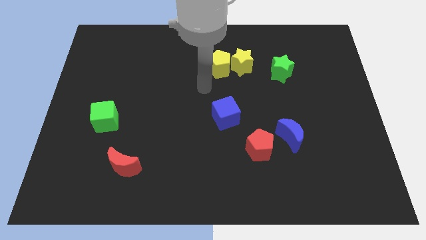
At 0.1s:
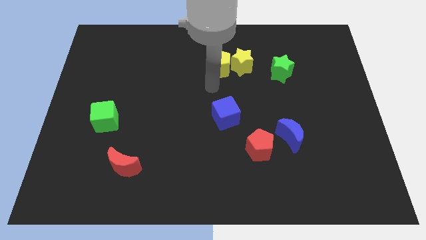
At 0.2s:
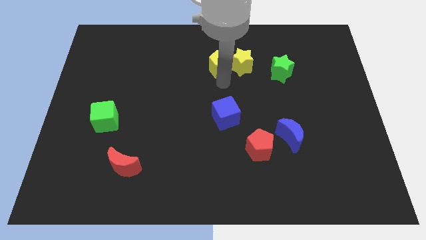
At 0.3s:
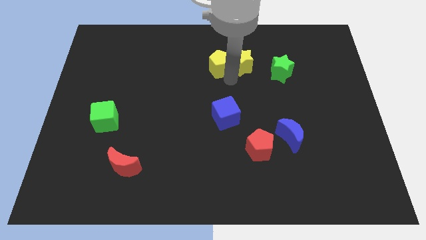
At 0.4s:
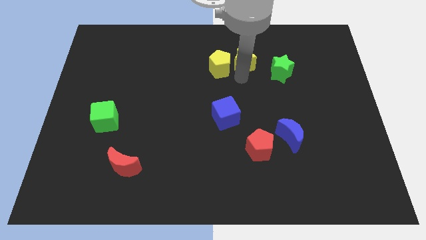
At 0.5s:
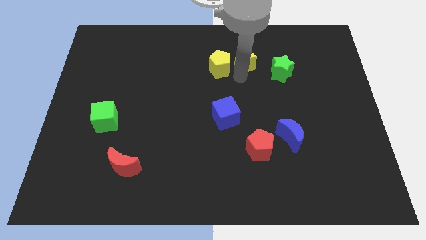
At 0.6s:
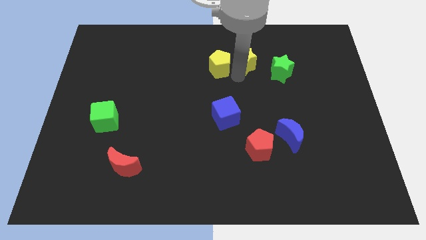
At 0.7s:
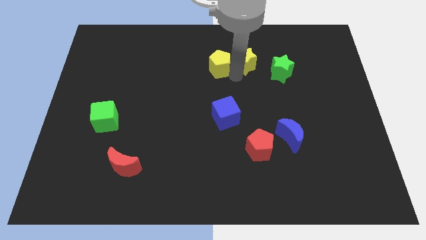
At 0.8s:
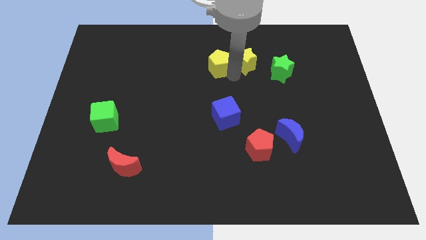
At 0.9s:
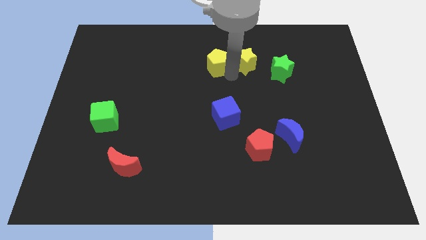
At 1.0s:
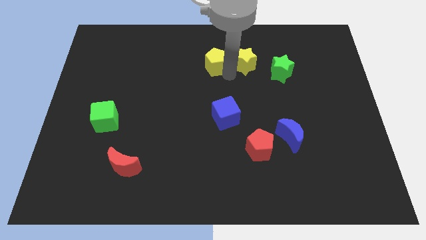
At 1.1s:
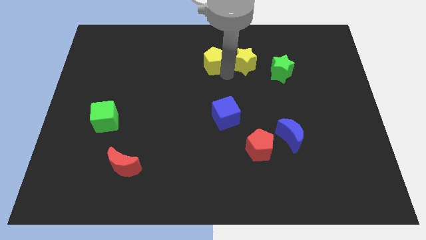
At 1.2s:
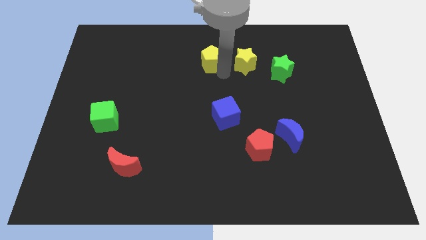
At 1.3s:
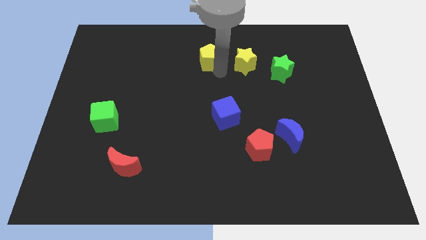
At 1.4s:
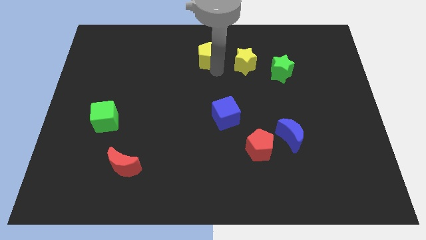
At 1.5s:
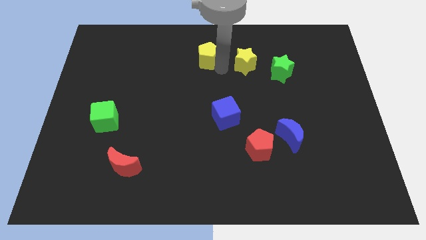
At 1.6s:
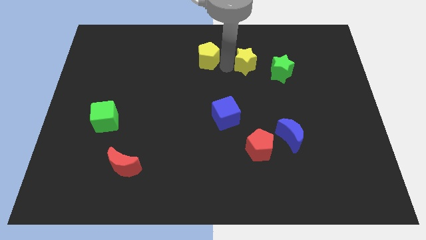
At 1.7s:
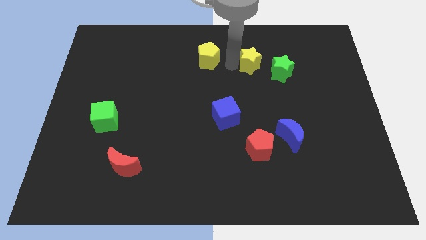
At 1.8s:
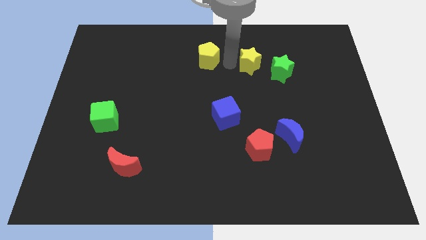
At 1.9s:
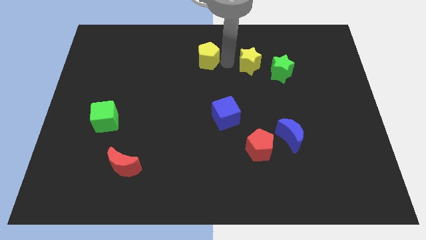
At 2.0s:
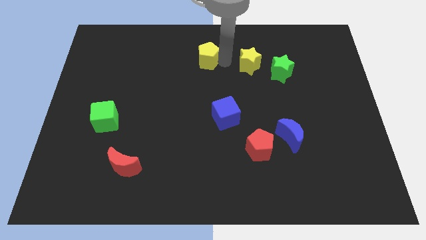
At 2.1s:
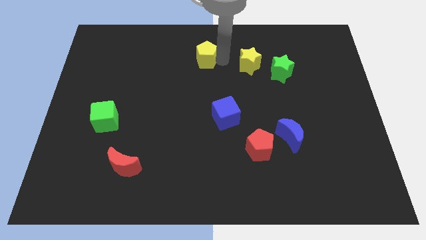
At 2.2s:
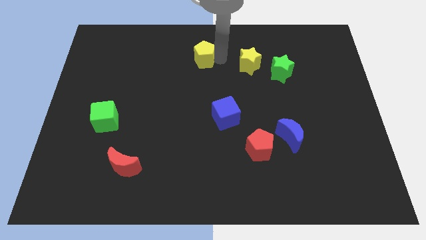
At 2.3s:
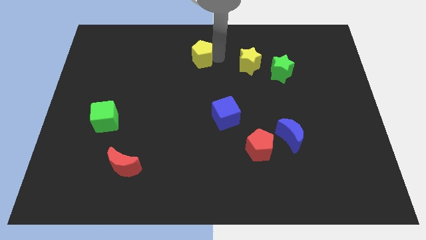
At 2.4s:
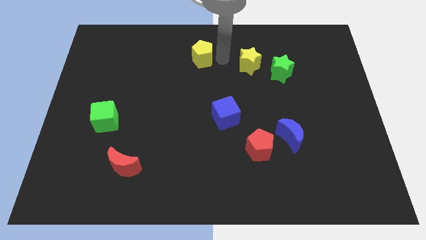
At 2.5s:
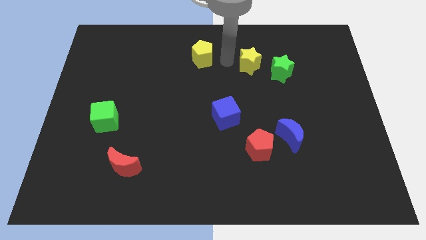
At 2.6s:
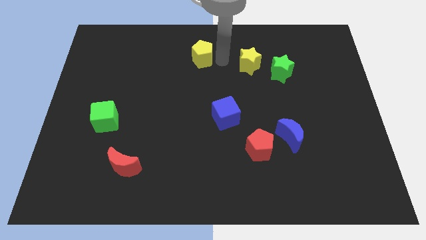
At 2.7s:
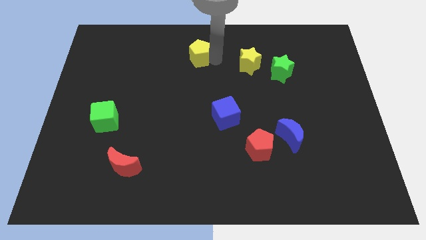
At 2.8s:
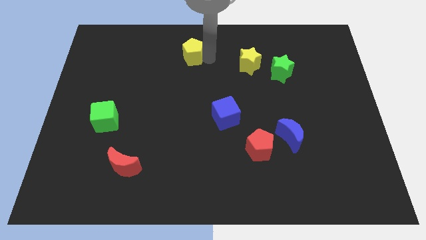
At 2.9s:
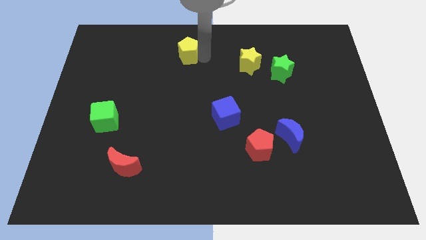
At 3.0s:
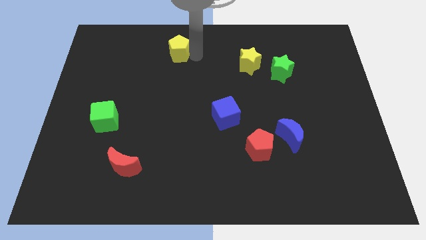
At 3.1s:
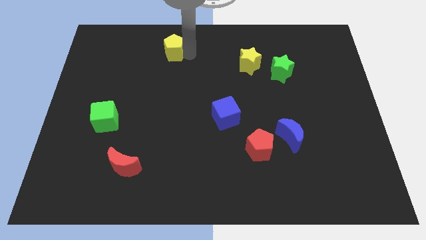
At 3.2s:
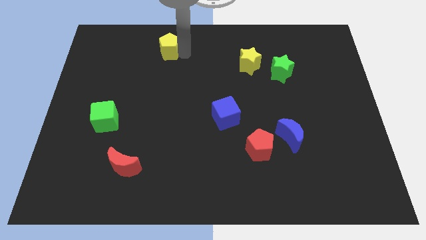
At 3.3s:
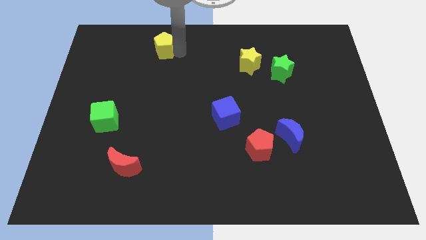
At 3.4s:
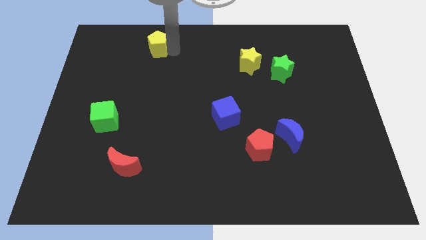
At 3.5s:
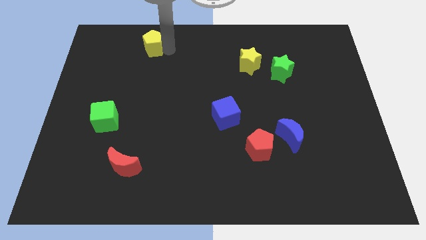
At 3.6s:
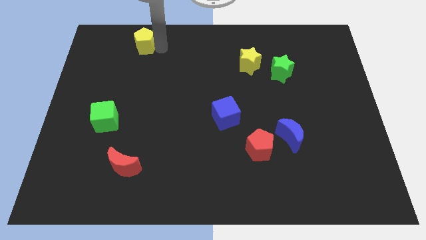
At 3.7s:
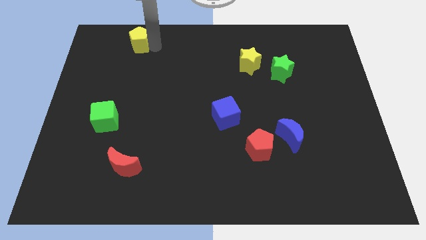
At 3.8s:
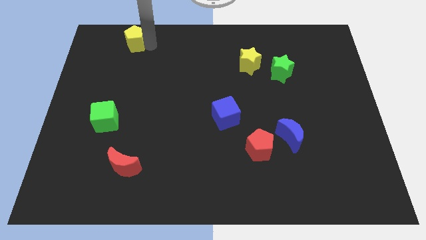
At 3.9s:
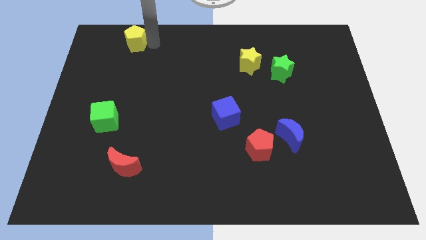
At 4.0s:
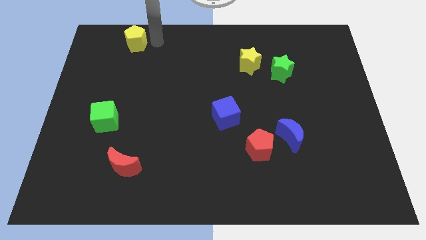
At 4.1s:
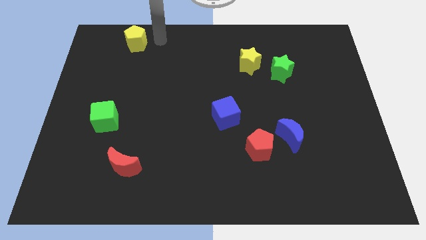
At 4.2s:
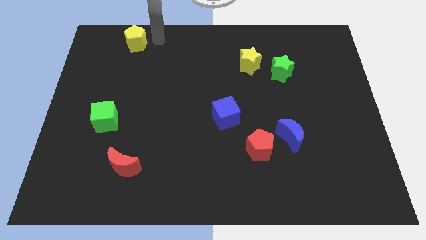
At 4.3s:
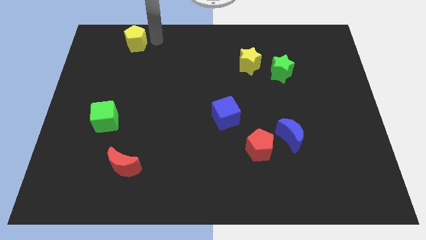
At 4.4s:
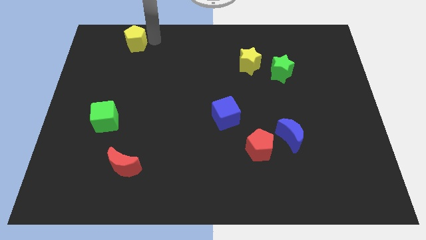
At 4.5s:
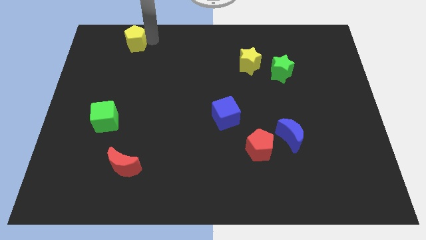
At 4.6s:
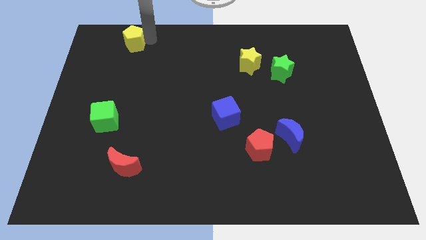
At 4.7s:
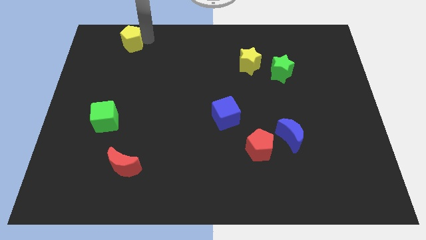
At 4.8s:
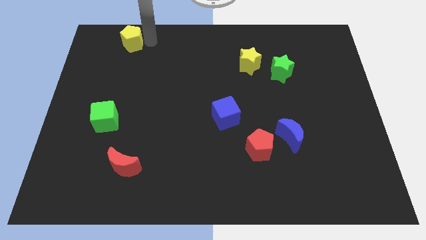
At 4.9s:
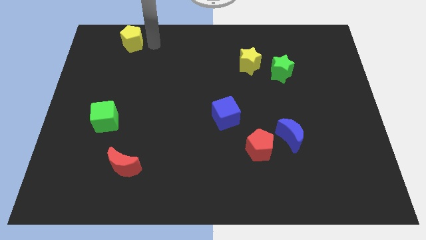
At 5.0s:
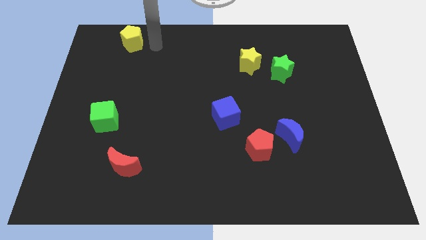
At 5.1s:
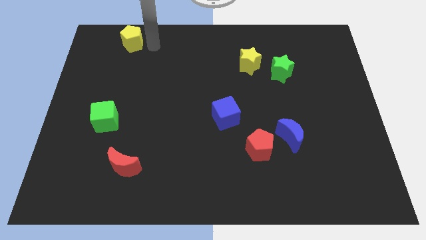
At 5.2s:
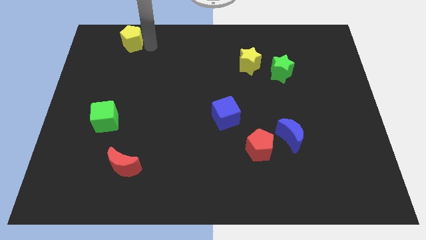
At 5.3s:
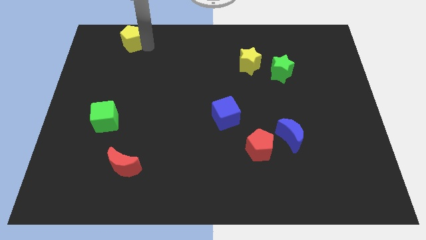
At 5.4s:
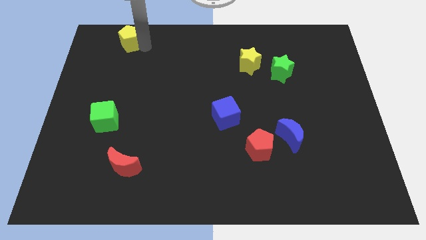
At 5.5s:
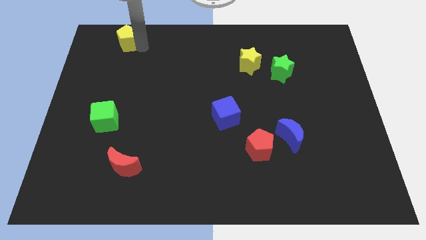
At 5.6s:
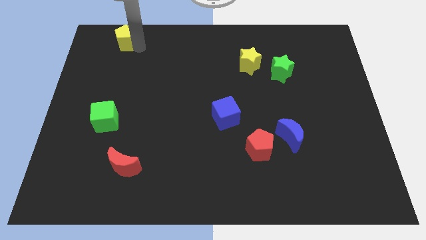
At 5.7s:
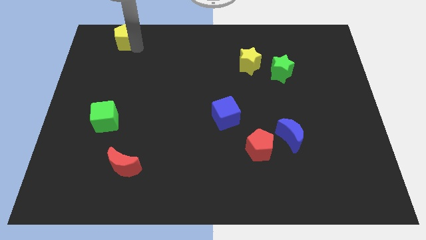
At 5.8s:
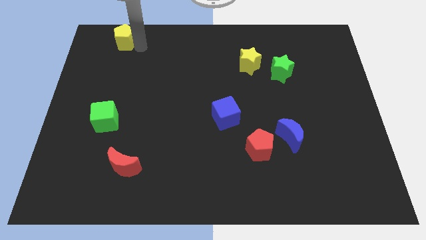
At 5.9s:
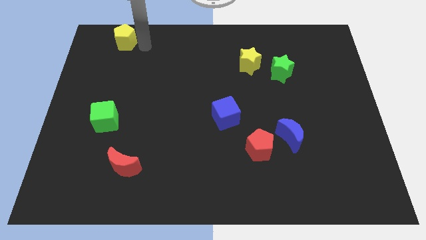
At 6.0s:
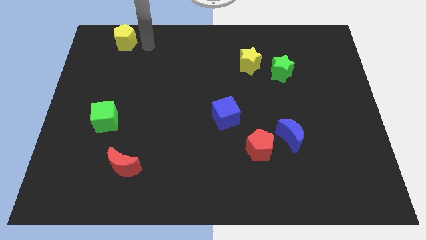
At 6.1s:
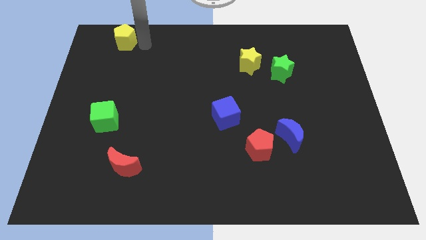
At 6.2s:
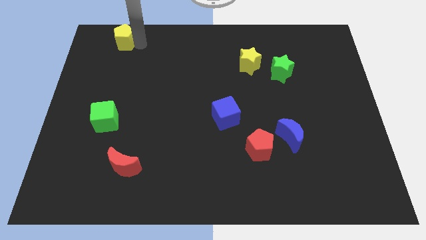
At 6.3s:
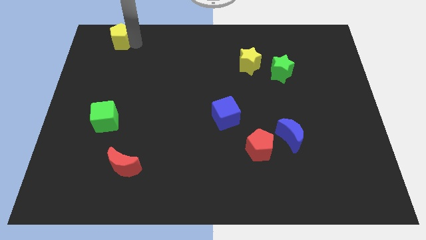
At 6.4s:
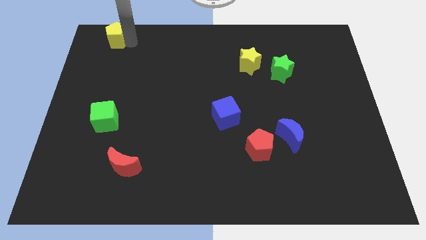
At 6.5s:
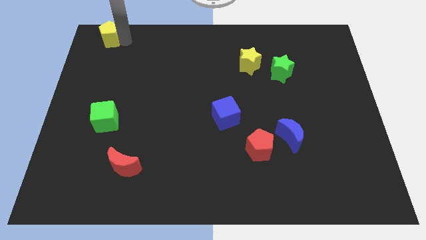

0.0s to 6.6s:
slide the yellow pentagon to the upper left corner
